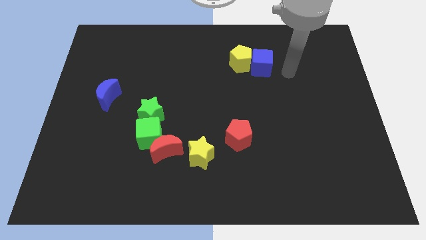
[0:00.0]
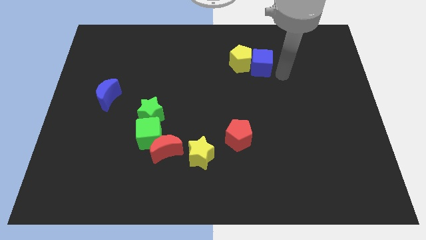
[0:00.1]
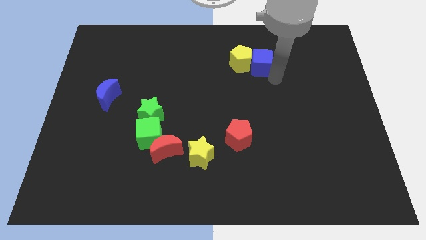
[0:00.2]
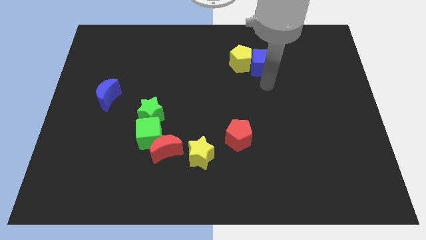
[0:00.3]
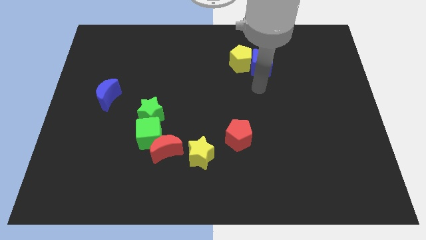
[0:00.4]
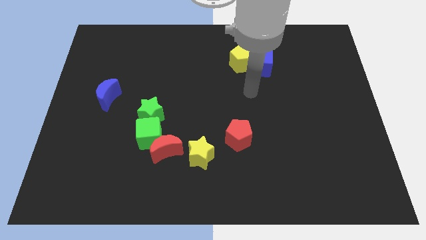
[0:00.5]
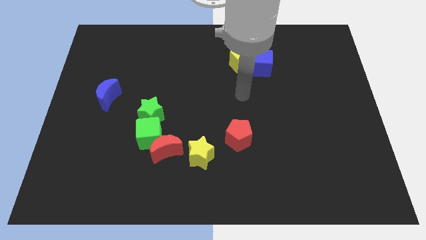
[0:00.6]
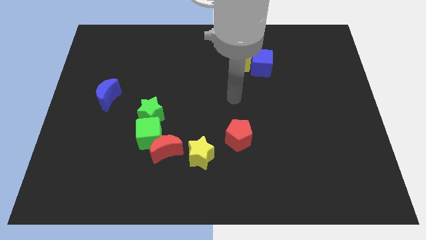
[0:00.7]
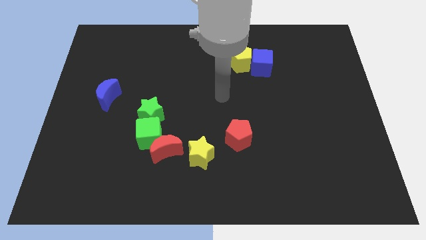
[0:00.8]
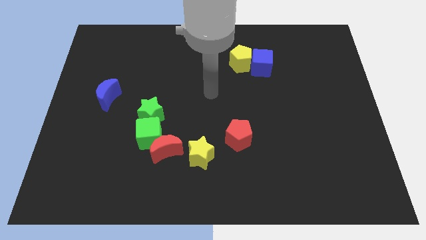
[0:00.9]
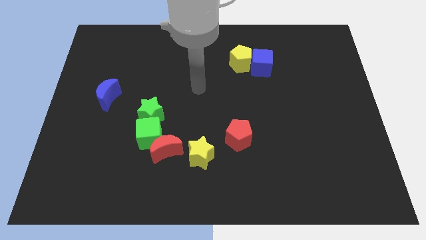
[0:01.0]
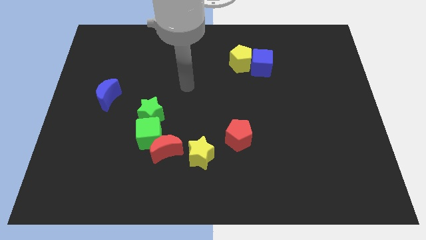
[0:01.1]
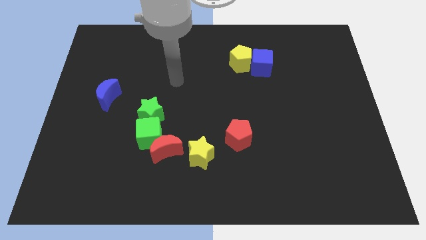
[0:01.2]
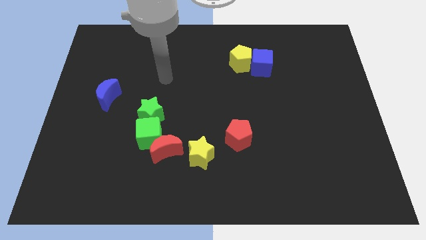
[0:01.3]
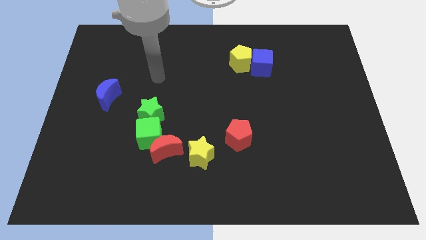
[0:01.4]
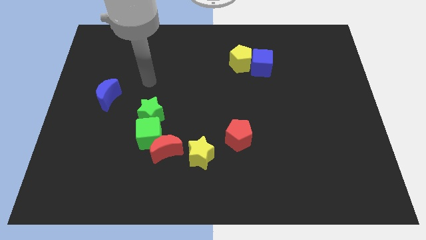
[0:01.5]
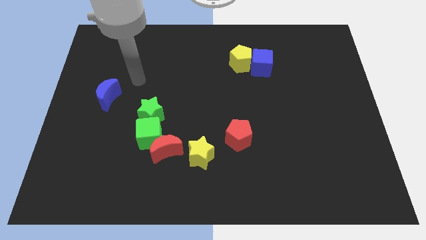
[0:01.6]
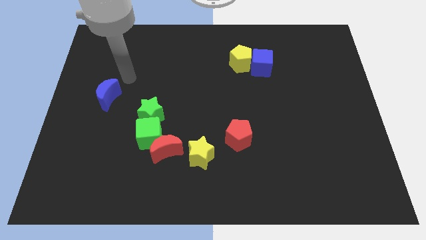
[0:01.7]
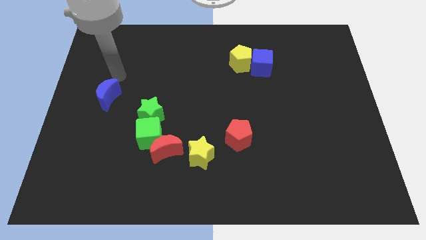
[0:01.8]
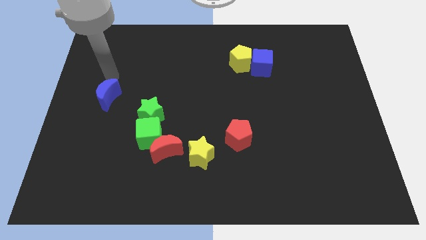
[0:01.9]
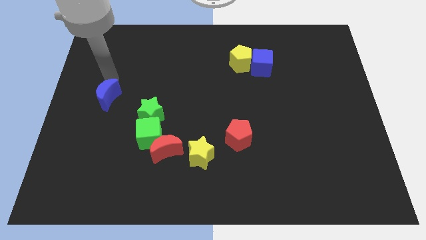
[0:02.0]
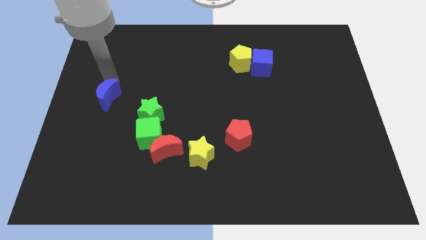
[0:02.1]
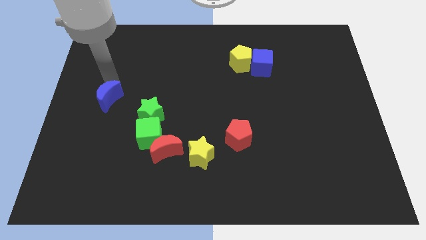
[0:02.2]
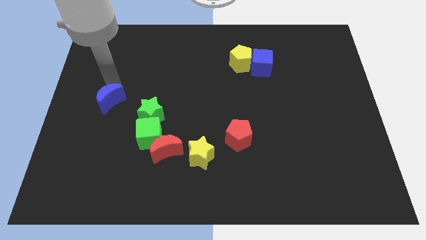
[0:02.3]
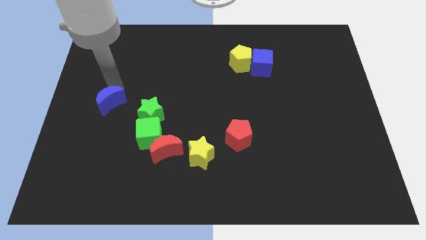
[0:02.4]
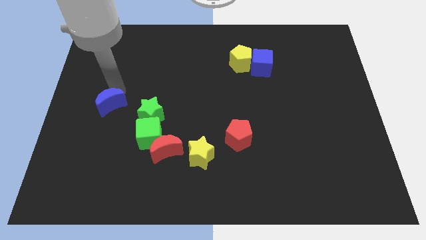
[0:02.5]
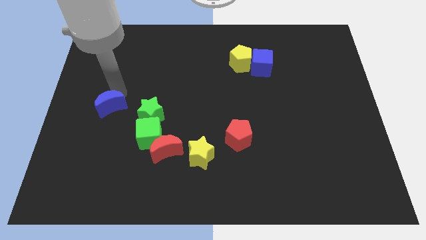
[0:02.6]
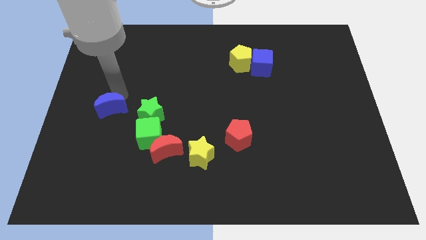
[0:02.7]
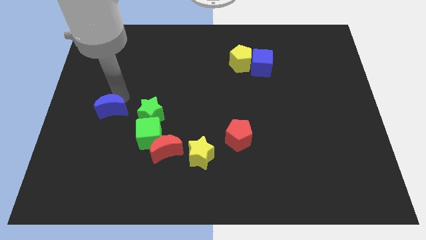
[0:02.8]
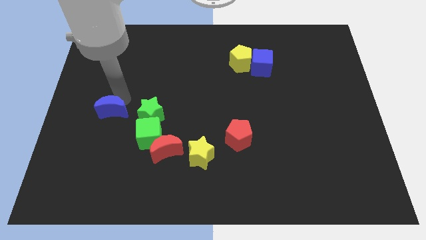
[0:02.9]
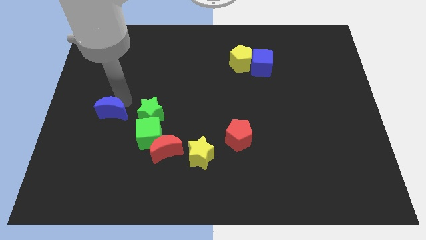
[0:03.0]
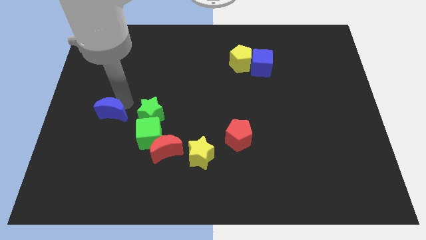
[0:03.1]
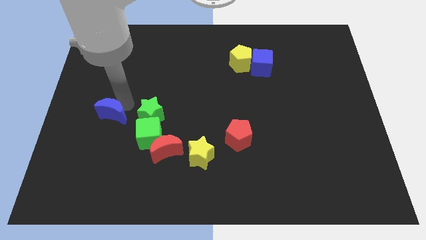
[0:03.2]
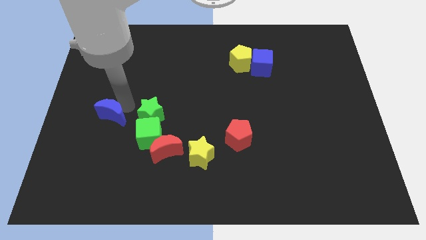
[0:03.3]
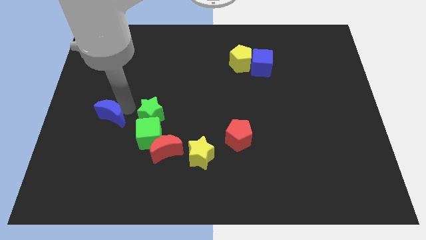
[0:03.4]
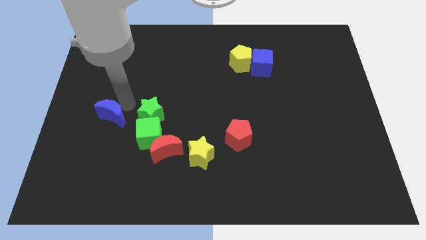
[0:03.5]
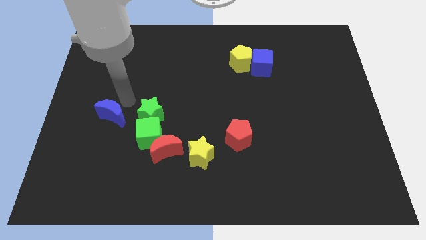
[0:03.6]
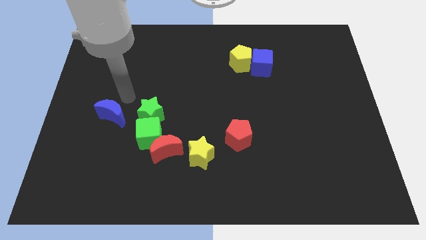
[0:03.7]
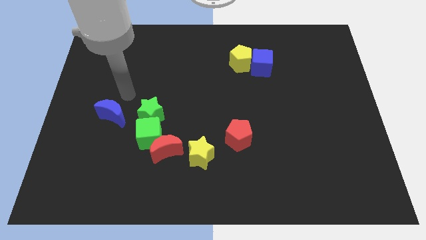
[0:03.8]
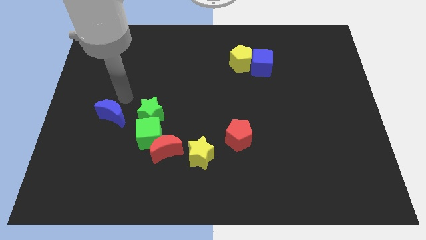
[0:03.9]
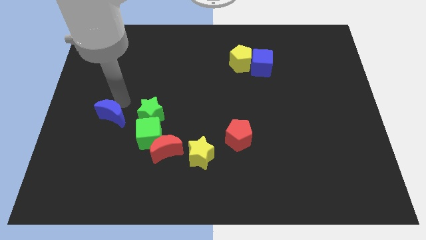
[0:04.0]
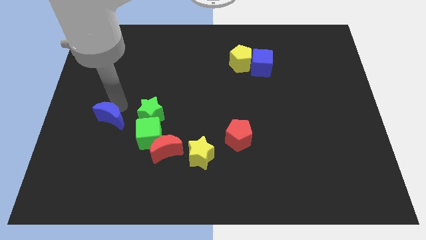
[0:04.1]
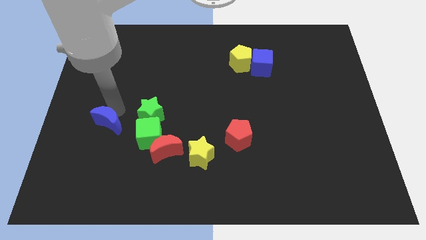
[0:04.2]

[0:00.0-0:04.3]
slide the blue moon a bit downwards

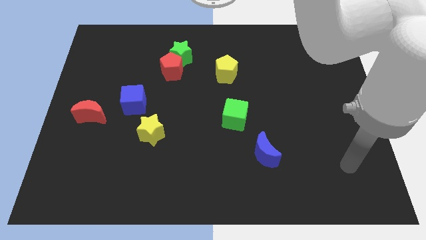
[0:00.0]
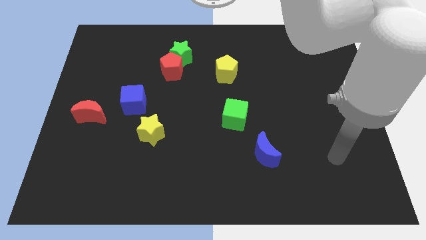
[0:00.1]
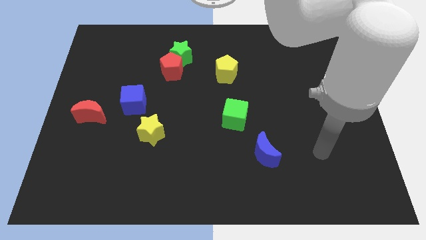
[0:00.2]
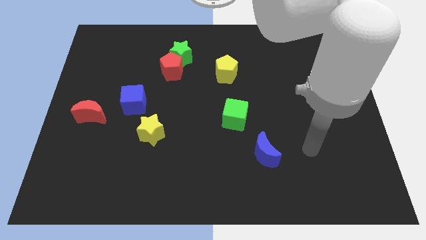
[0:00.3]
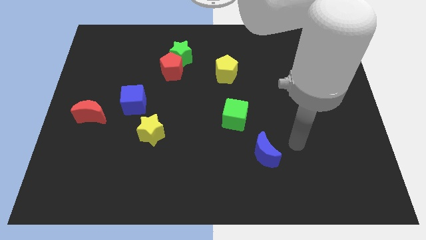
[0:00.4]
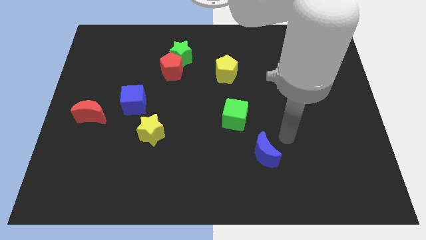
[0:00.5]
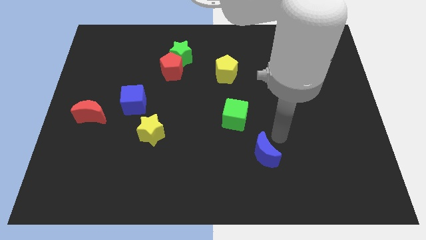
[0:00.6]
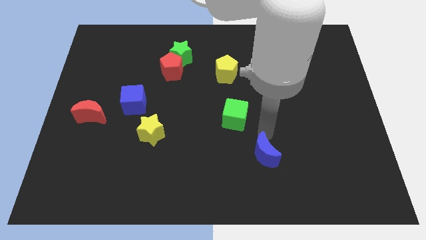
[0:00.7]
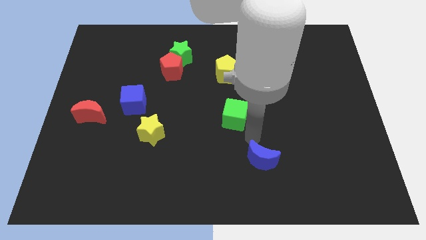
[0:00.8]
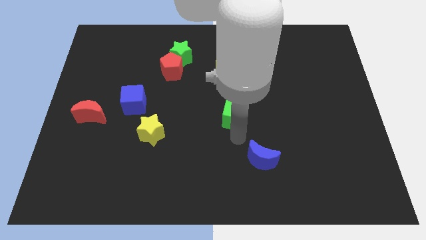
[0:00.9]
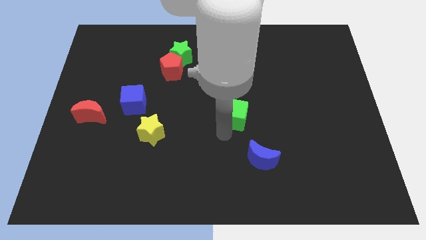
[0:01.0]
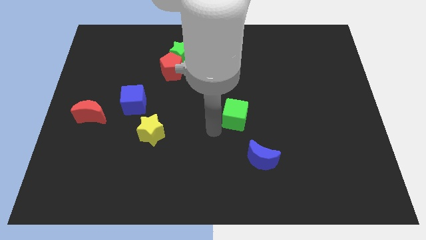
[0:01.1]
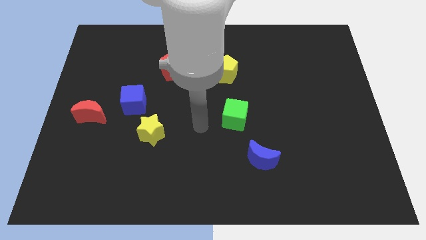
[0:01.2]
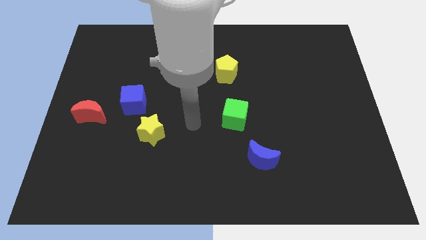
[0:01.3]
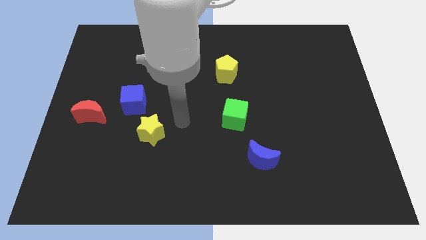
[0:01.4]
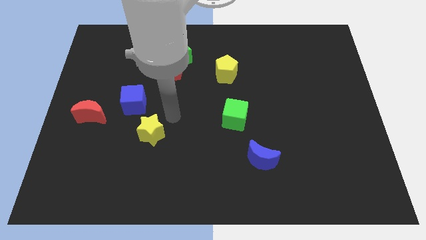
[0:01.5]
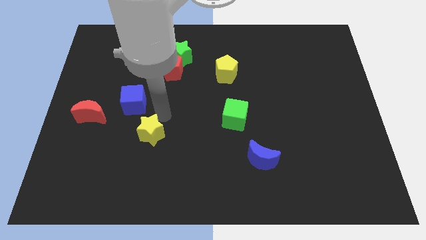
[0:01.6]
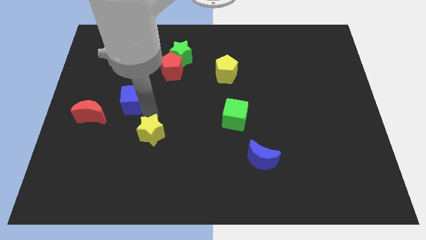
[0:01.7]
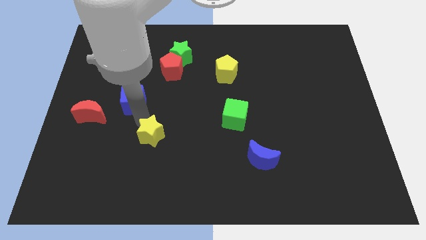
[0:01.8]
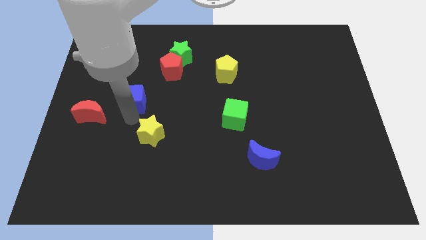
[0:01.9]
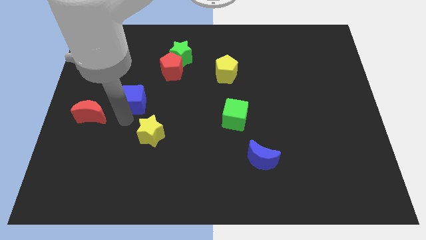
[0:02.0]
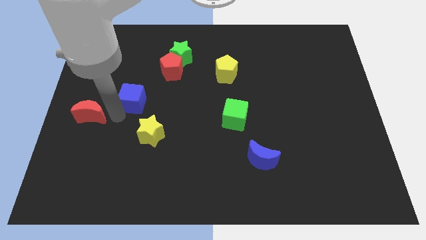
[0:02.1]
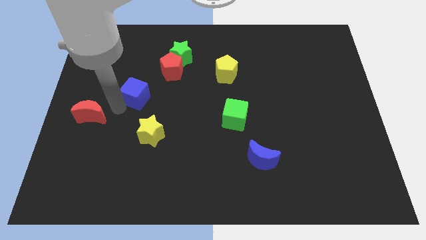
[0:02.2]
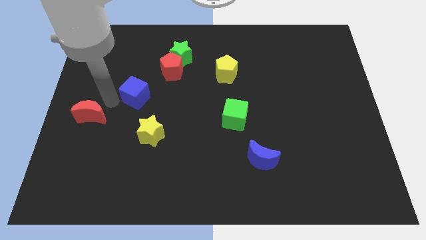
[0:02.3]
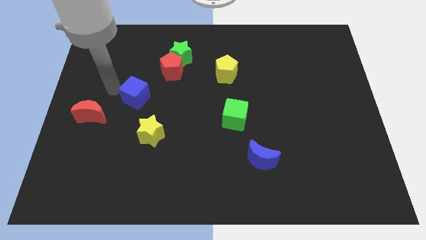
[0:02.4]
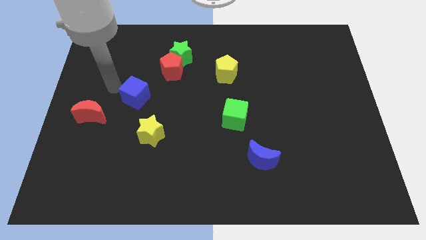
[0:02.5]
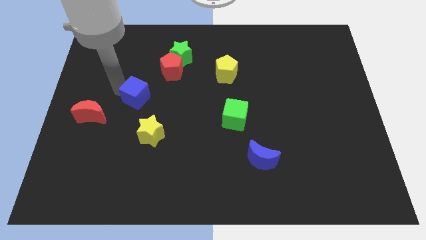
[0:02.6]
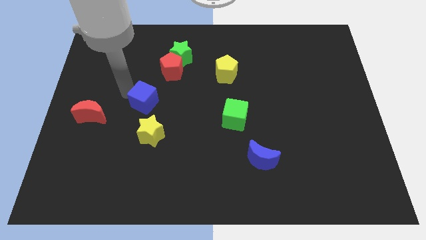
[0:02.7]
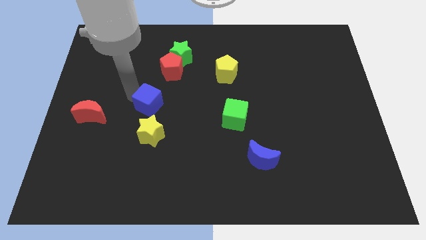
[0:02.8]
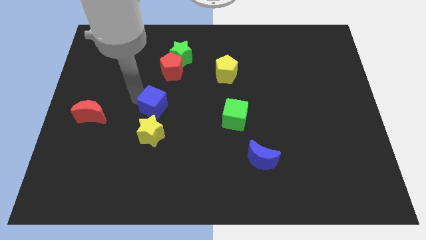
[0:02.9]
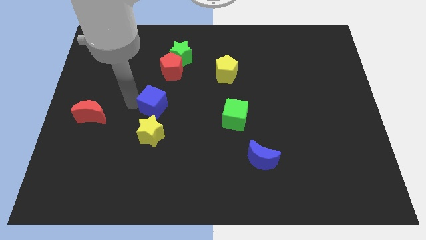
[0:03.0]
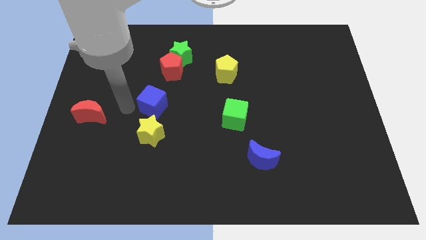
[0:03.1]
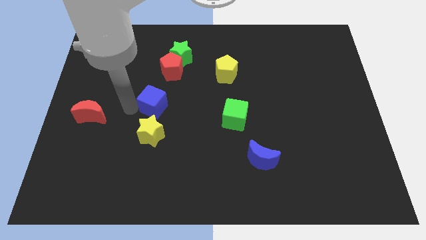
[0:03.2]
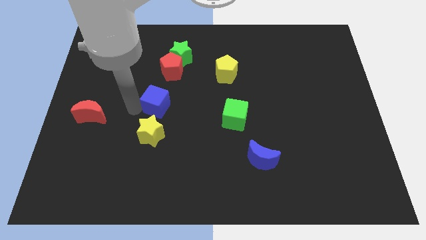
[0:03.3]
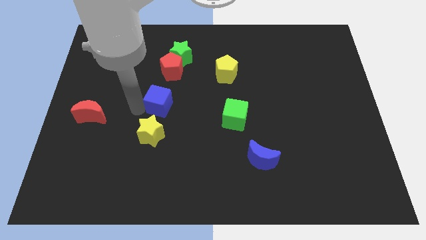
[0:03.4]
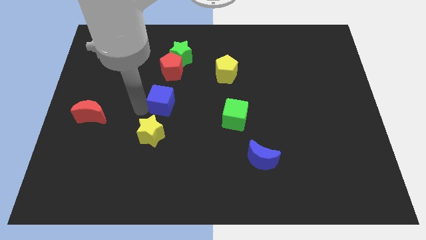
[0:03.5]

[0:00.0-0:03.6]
slide the blue cube right slightly

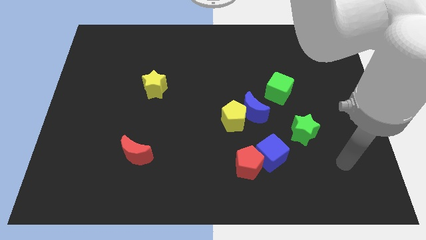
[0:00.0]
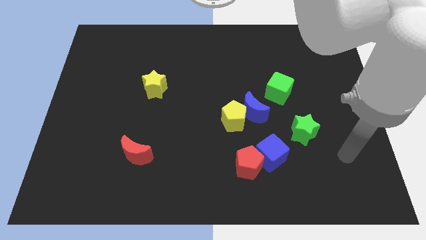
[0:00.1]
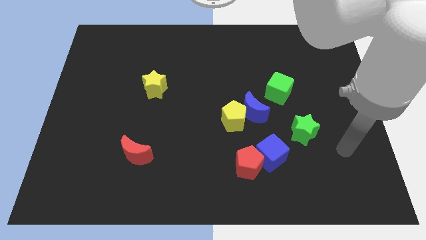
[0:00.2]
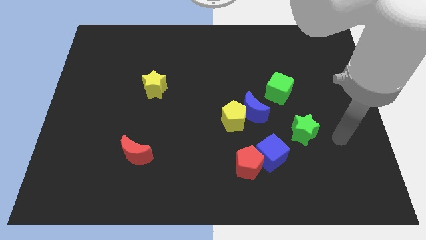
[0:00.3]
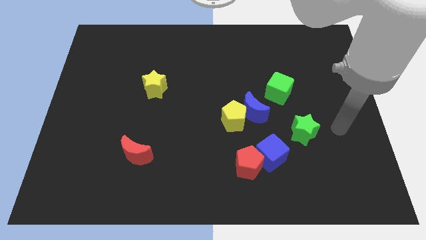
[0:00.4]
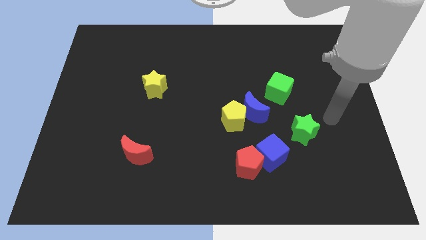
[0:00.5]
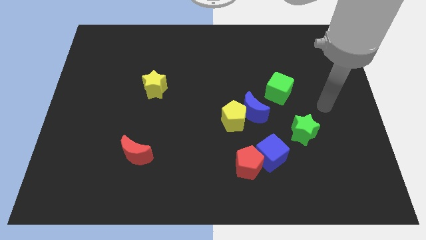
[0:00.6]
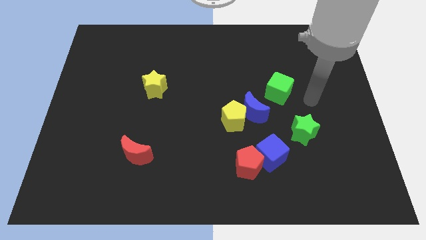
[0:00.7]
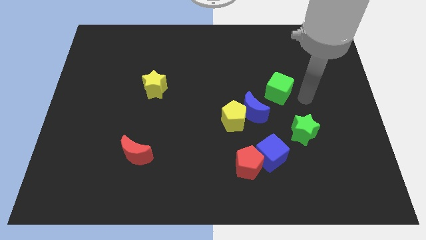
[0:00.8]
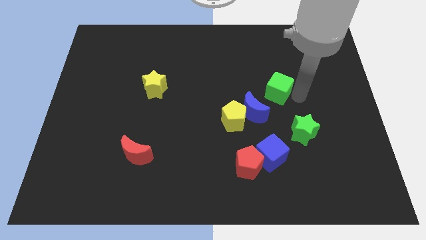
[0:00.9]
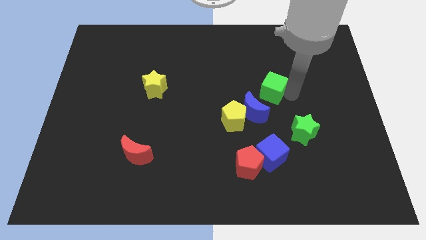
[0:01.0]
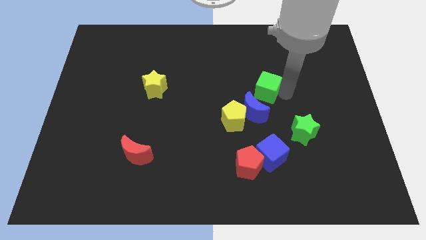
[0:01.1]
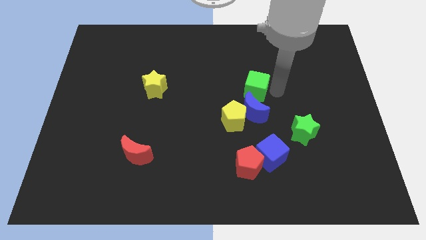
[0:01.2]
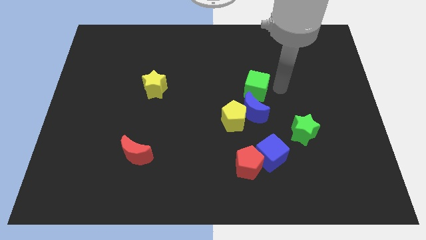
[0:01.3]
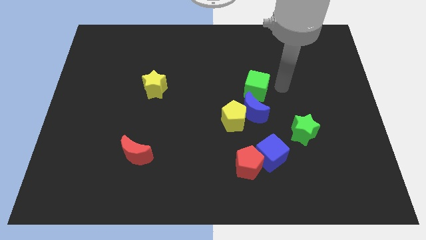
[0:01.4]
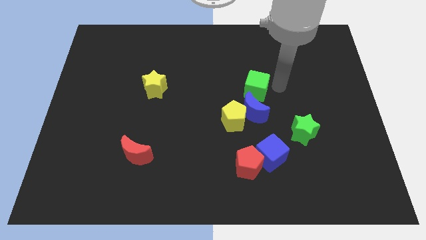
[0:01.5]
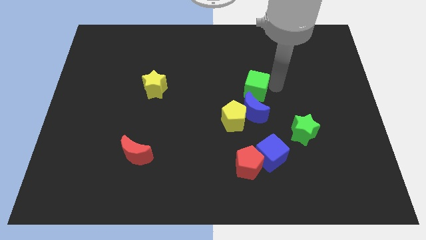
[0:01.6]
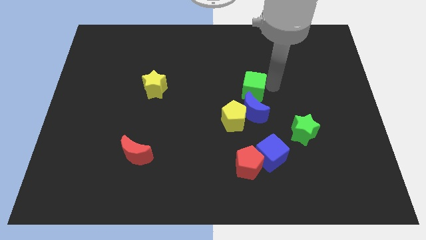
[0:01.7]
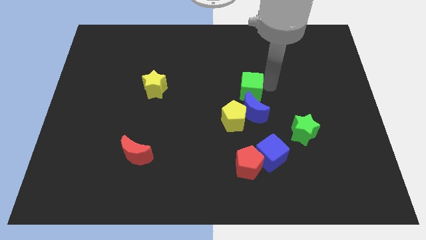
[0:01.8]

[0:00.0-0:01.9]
push the green cube somewhat left
